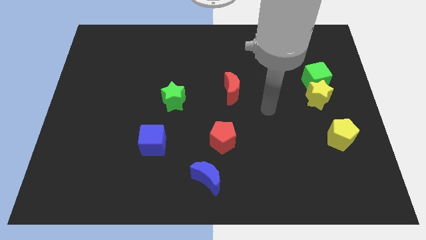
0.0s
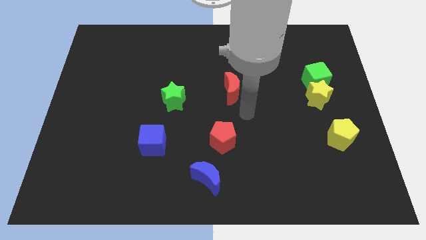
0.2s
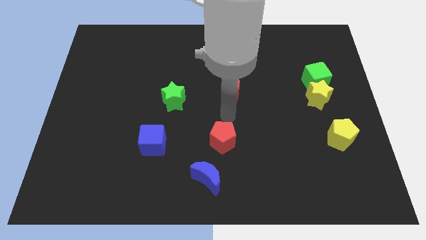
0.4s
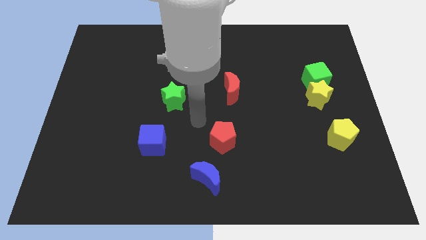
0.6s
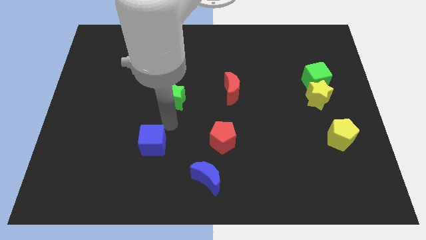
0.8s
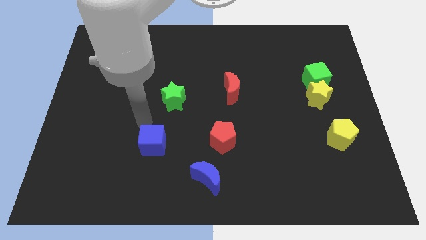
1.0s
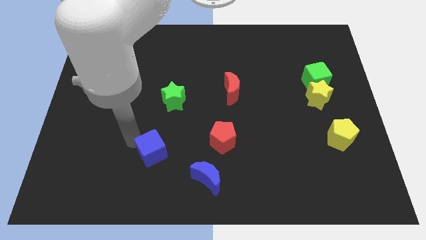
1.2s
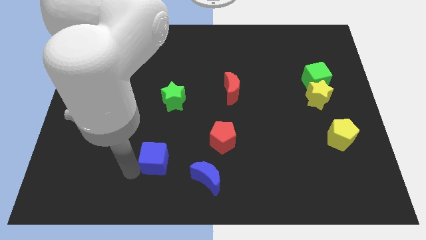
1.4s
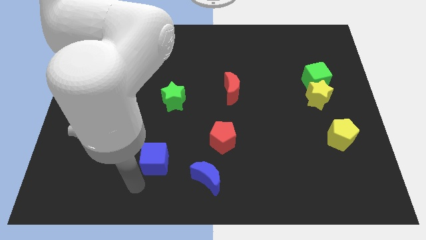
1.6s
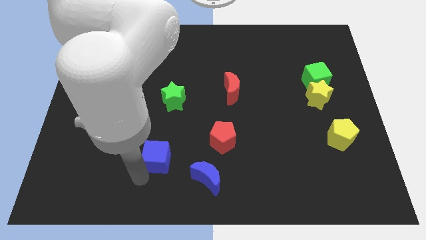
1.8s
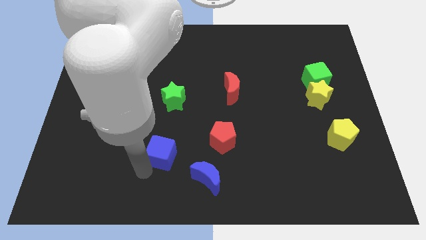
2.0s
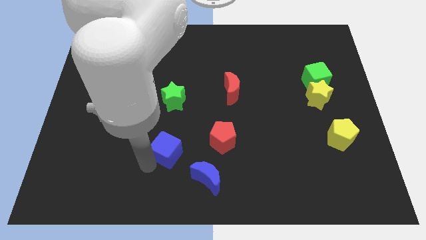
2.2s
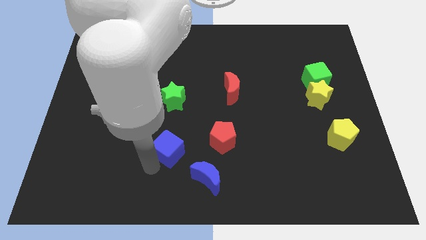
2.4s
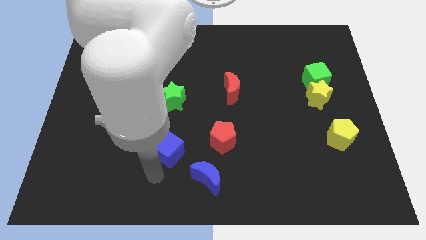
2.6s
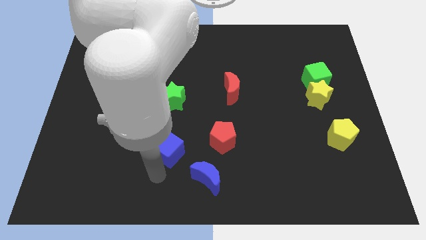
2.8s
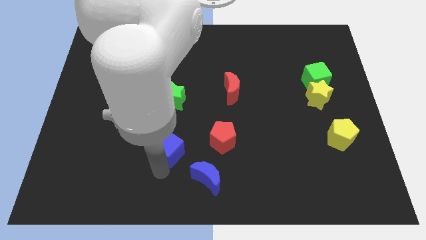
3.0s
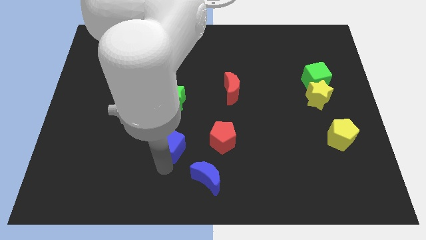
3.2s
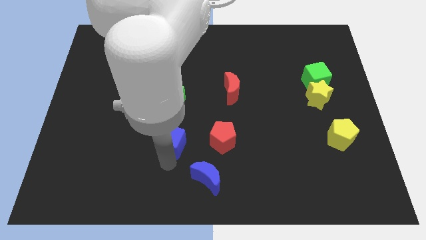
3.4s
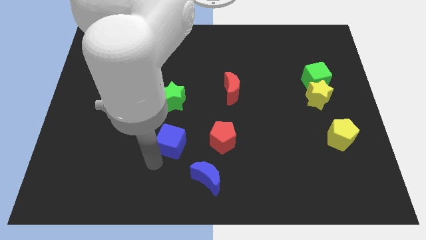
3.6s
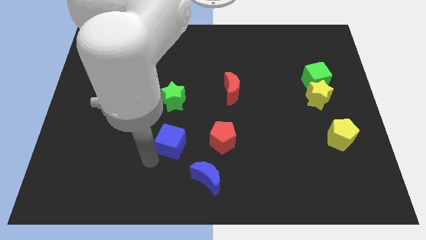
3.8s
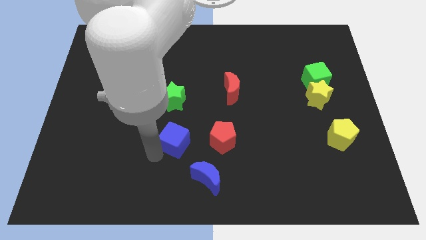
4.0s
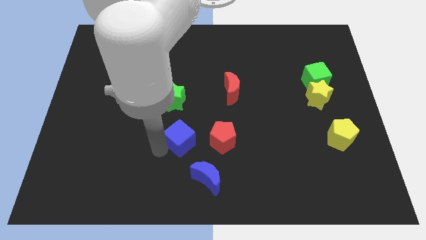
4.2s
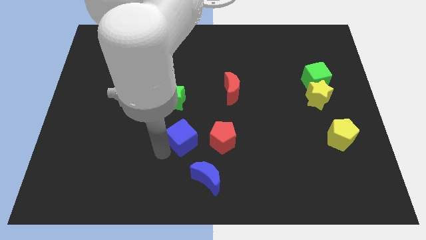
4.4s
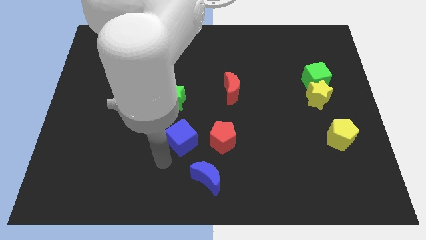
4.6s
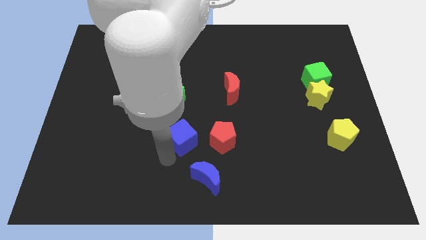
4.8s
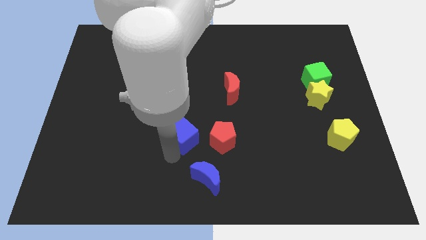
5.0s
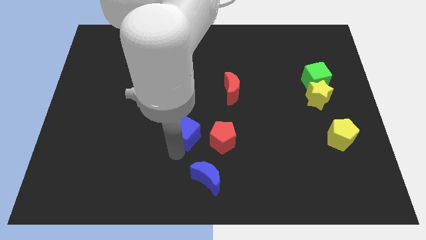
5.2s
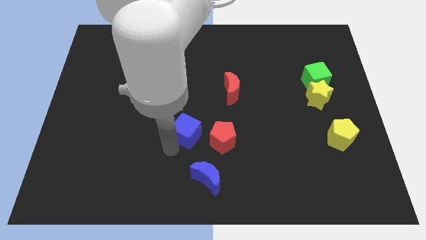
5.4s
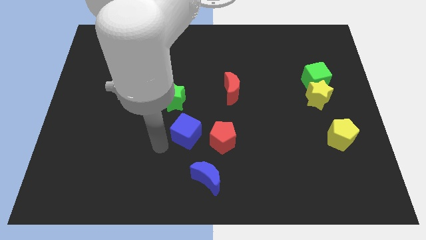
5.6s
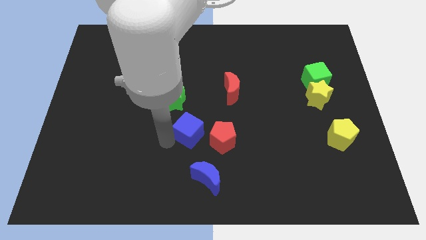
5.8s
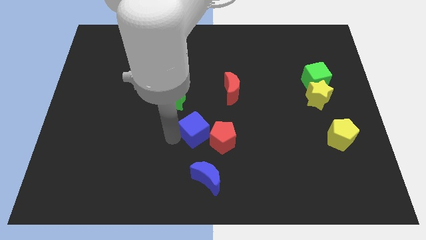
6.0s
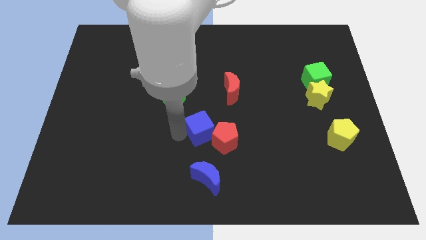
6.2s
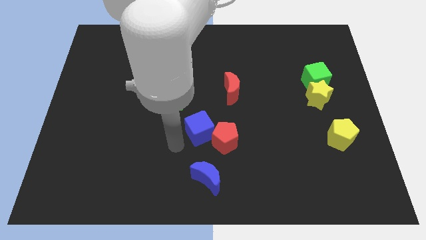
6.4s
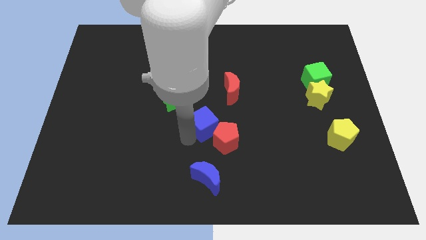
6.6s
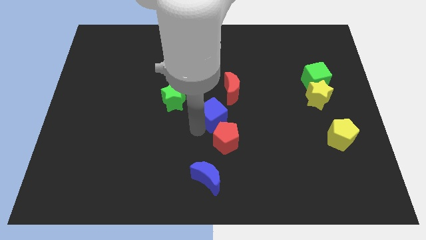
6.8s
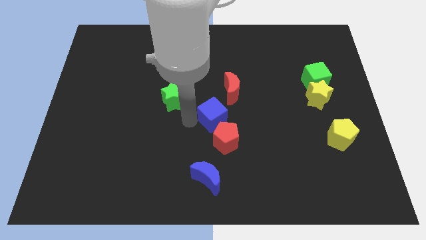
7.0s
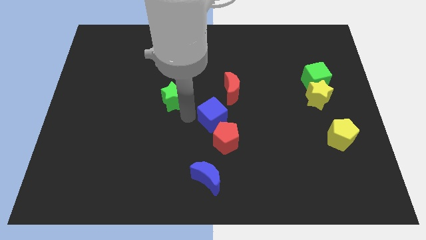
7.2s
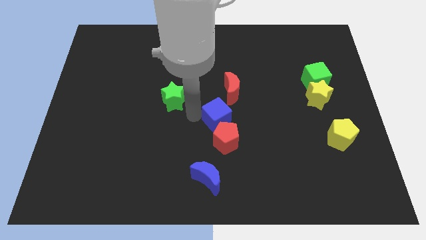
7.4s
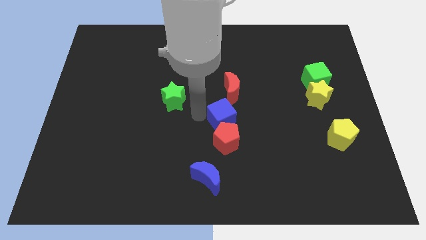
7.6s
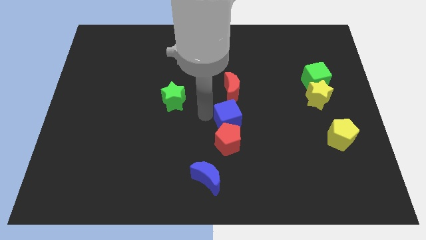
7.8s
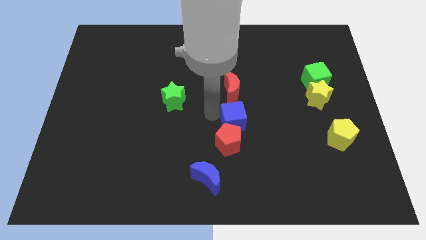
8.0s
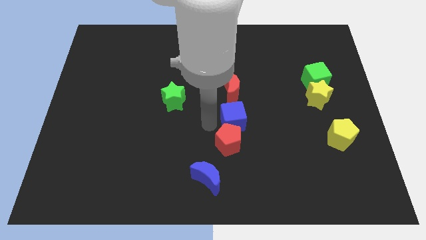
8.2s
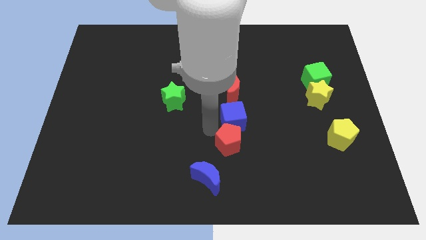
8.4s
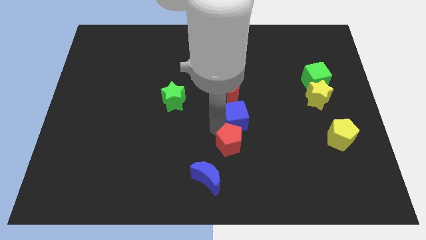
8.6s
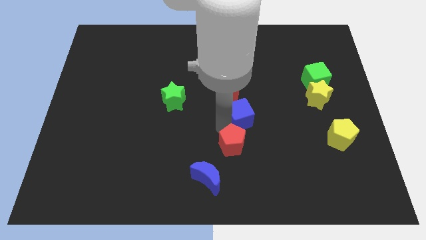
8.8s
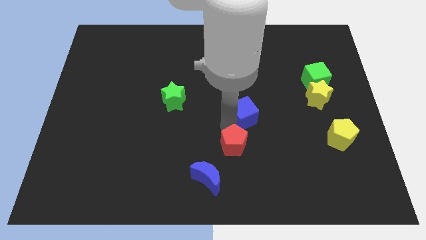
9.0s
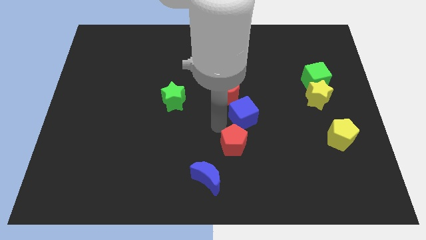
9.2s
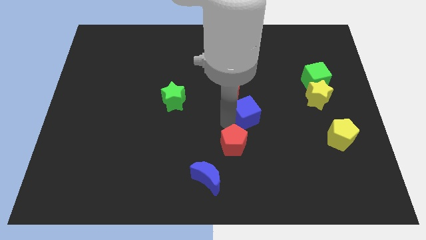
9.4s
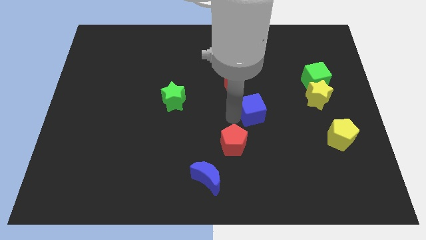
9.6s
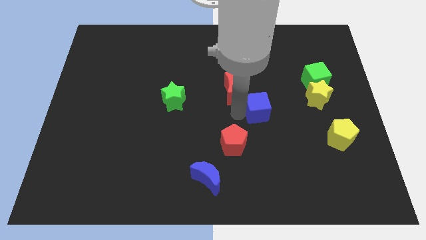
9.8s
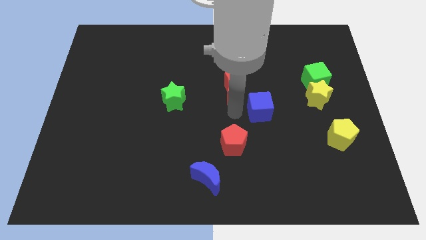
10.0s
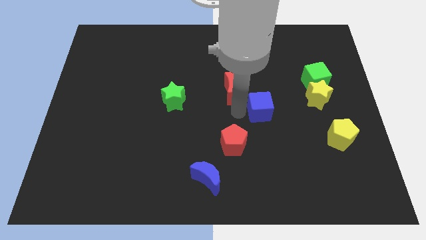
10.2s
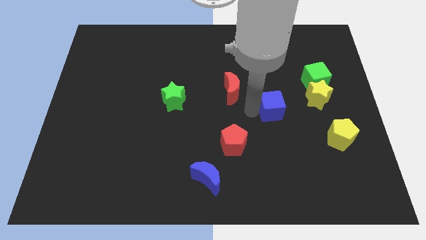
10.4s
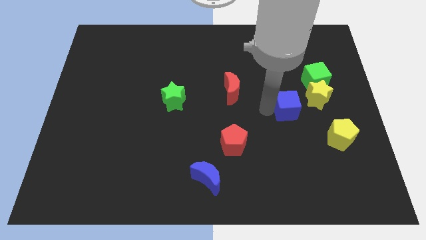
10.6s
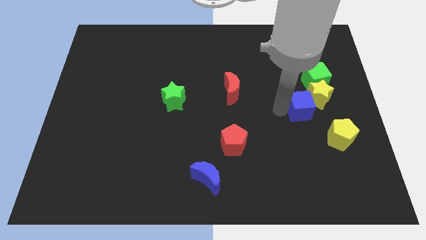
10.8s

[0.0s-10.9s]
push the blue cube to the yellow star

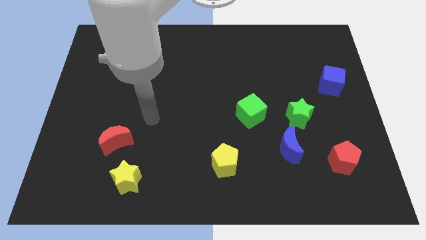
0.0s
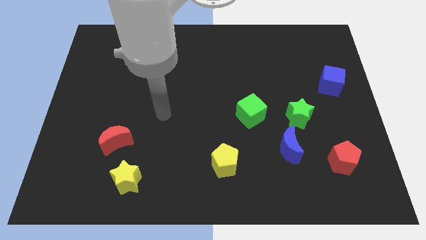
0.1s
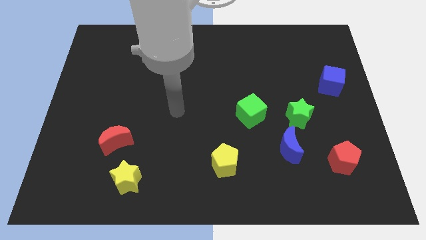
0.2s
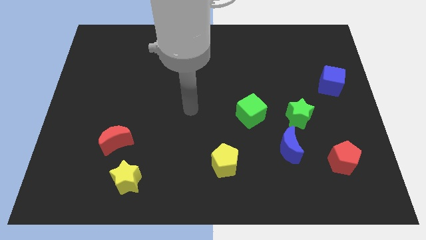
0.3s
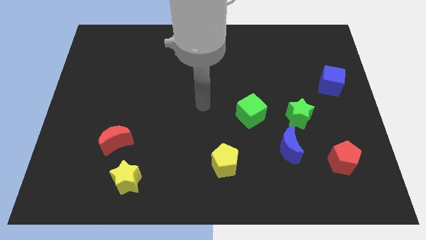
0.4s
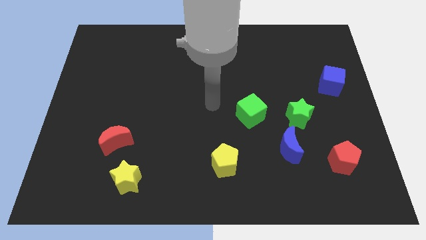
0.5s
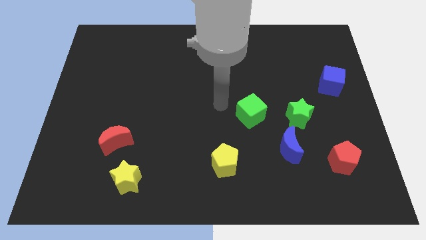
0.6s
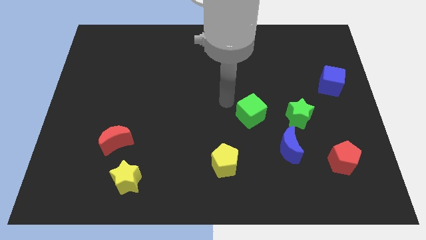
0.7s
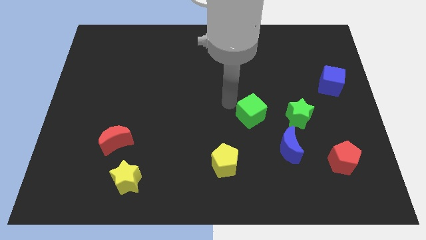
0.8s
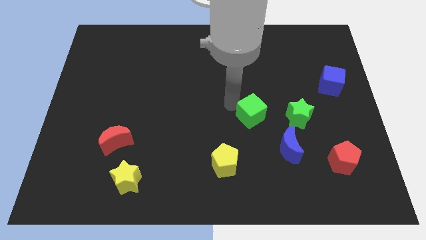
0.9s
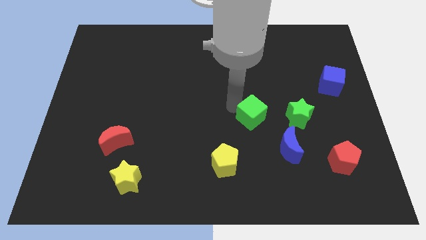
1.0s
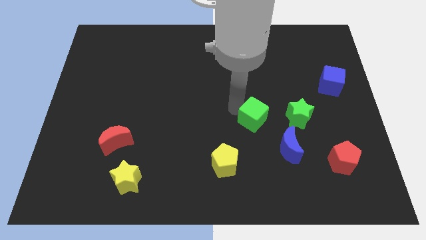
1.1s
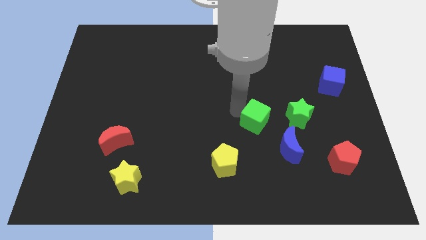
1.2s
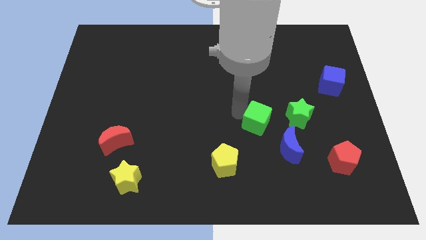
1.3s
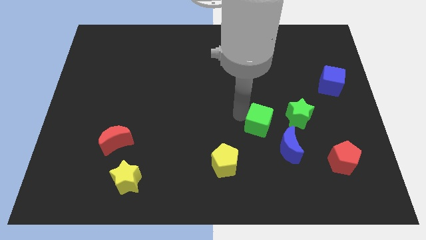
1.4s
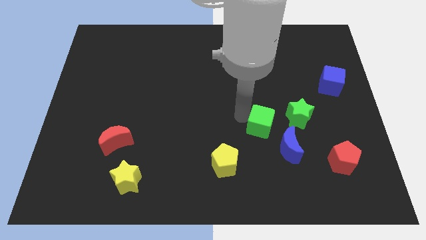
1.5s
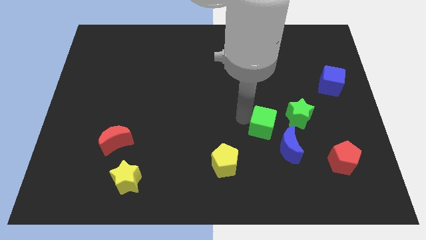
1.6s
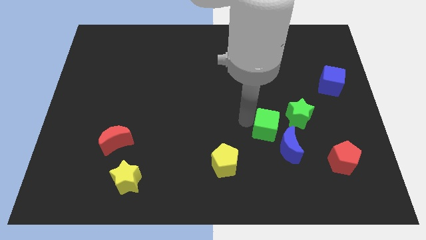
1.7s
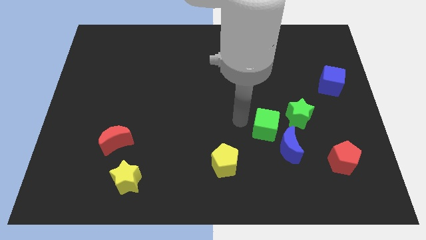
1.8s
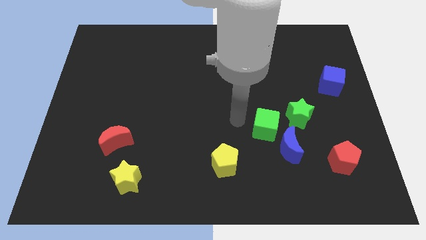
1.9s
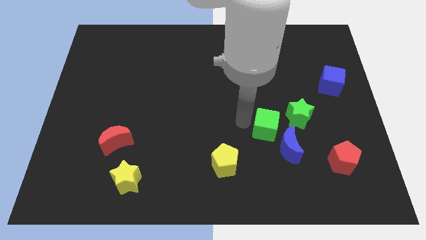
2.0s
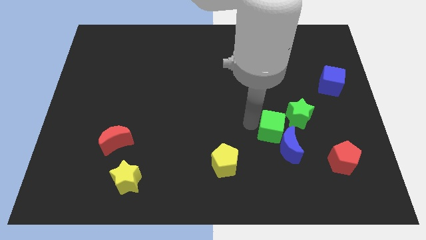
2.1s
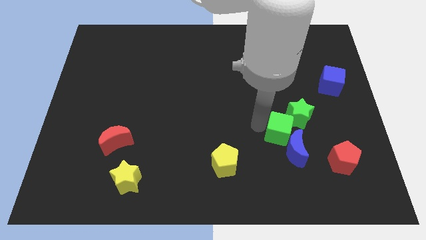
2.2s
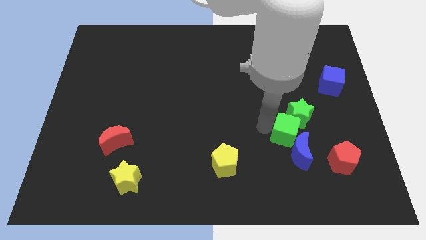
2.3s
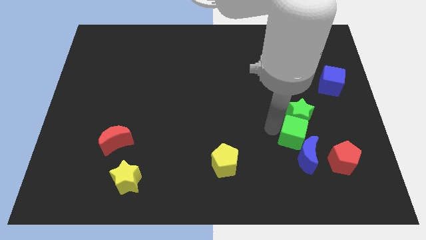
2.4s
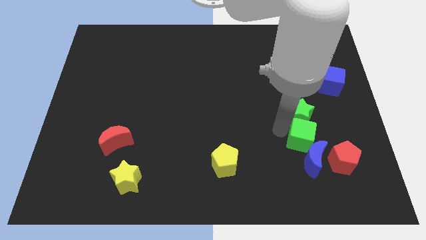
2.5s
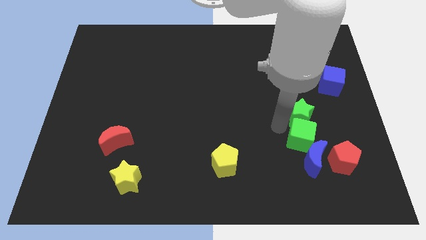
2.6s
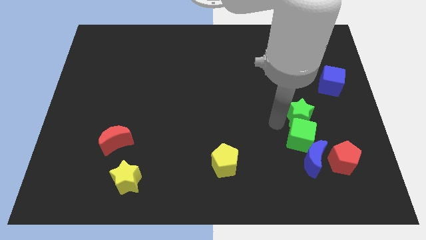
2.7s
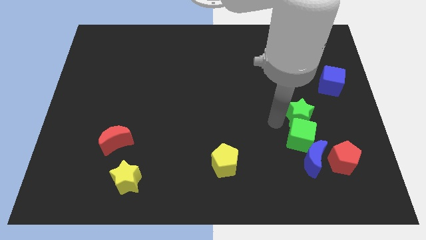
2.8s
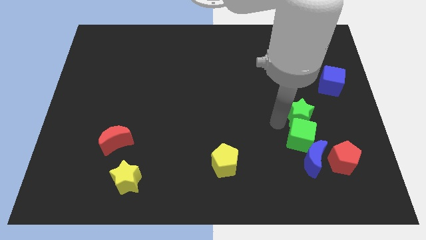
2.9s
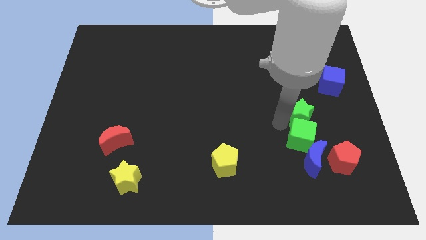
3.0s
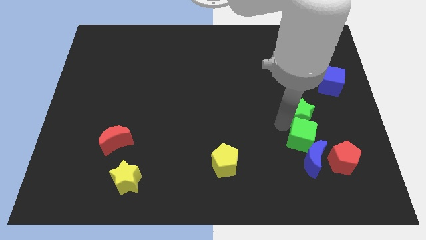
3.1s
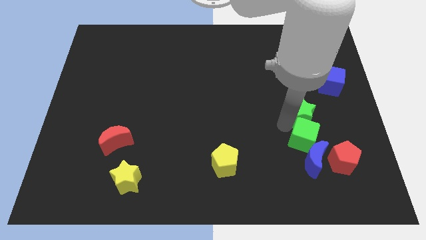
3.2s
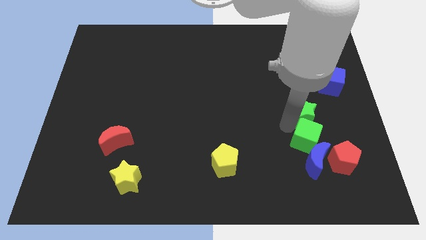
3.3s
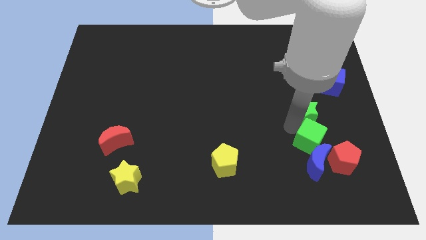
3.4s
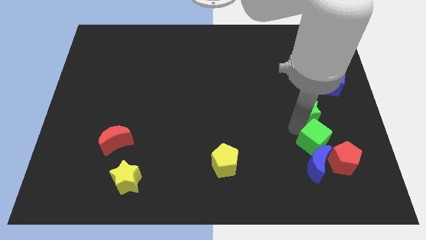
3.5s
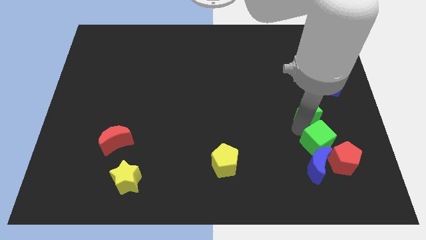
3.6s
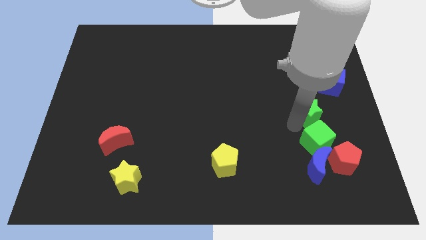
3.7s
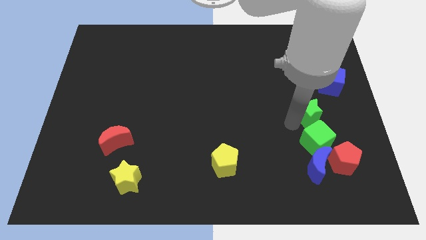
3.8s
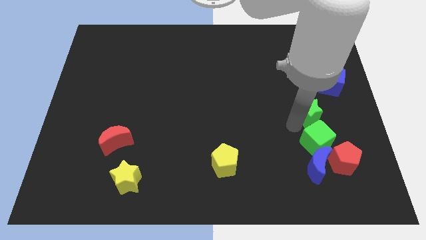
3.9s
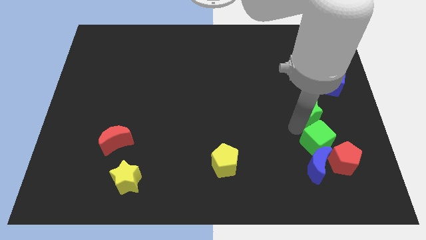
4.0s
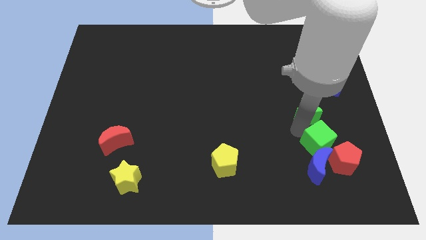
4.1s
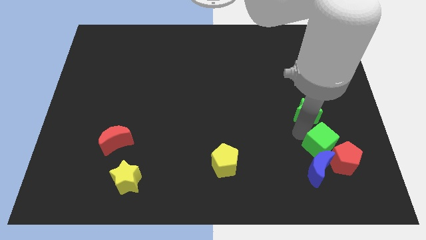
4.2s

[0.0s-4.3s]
put the green cube close to the red pentagon
